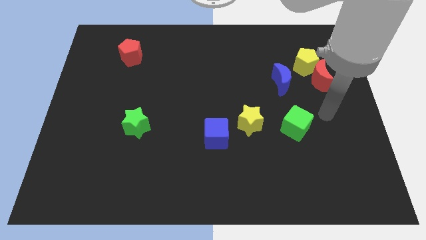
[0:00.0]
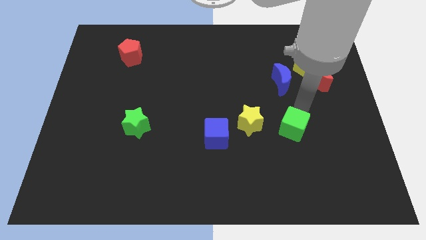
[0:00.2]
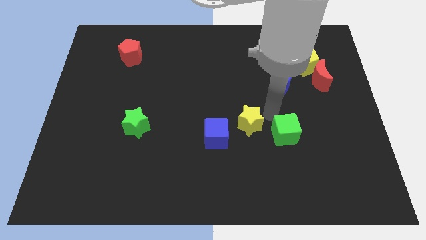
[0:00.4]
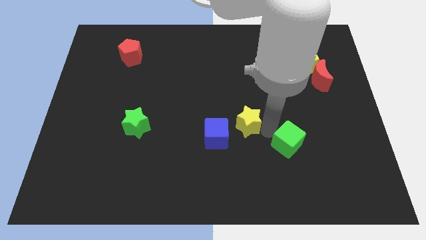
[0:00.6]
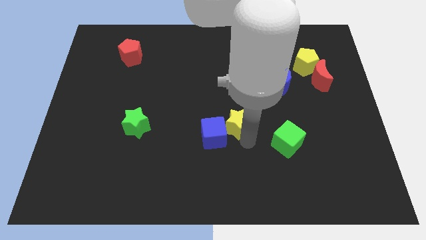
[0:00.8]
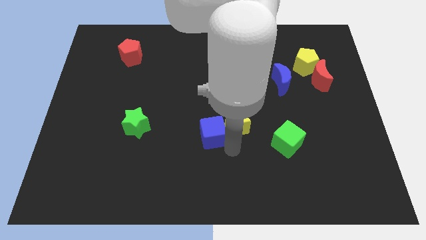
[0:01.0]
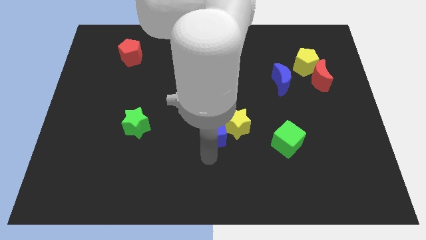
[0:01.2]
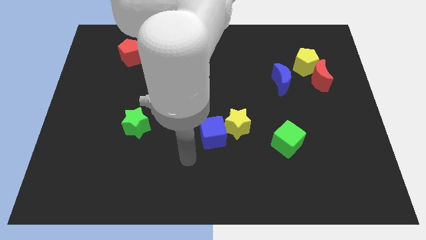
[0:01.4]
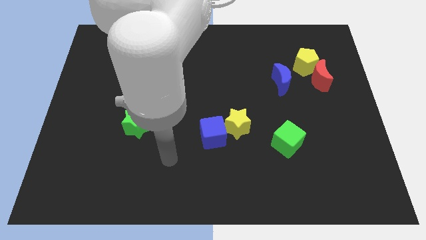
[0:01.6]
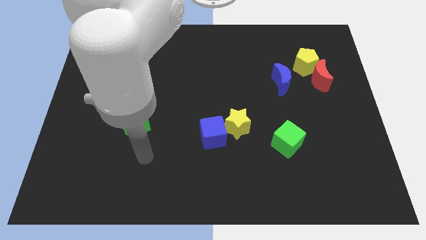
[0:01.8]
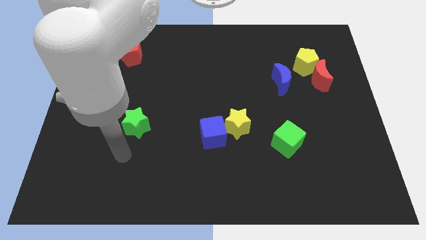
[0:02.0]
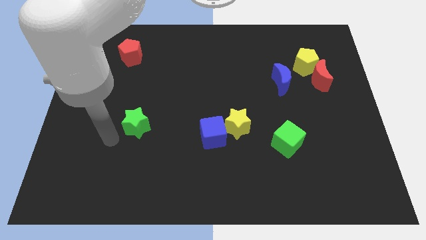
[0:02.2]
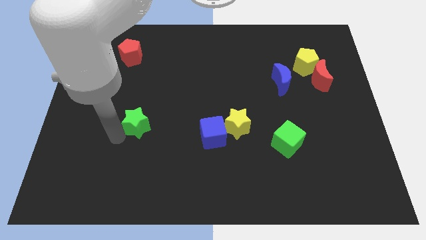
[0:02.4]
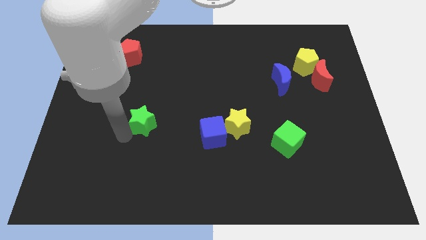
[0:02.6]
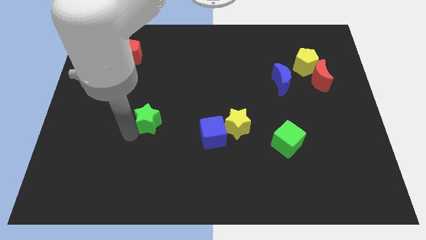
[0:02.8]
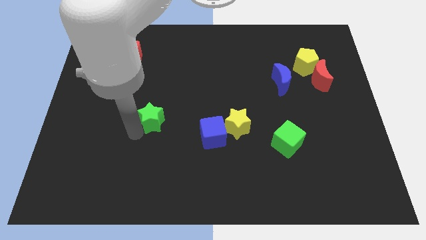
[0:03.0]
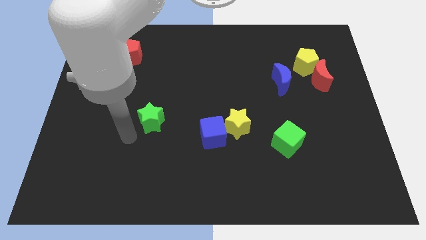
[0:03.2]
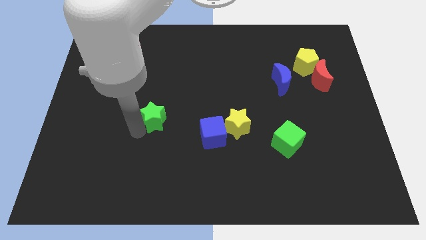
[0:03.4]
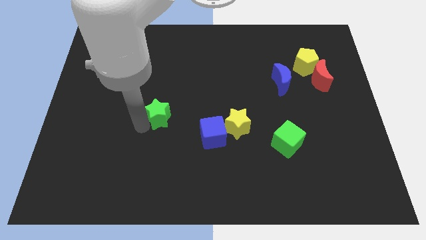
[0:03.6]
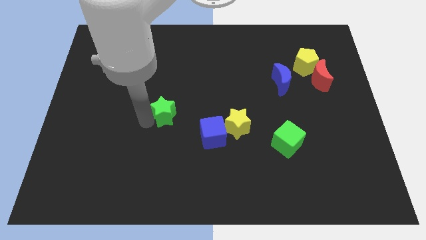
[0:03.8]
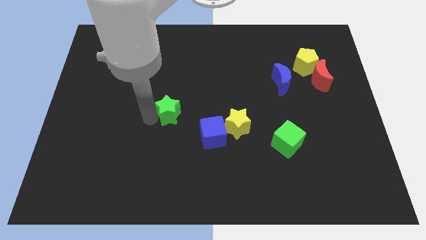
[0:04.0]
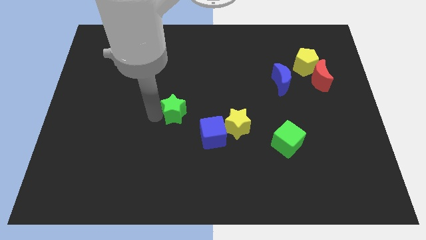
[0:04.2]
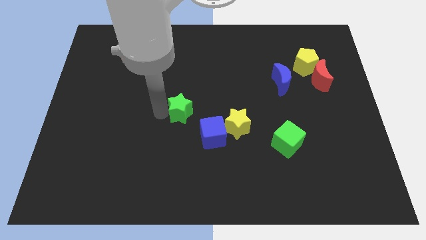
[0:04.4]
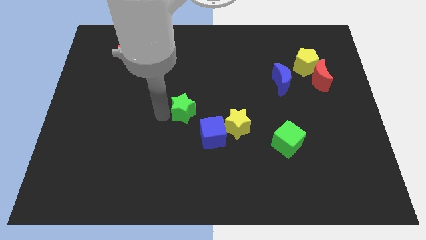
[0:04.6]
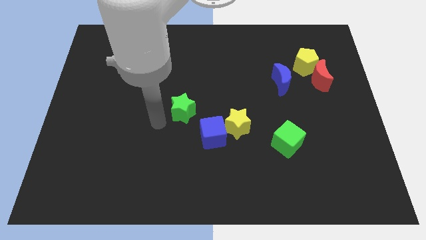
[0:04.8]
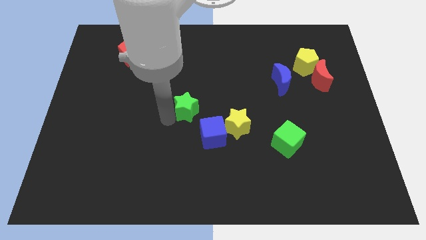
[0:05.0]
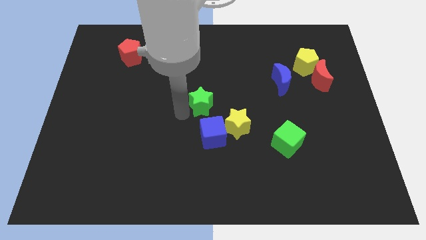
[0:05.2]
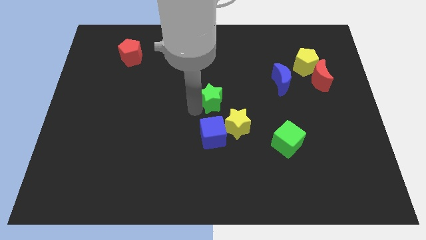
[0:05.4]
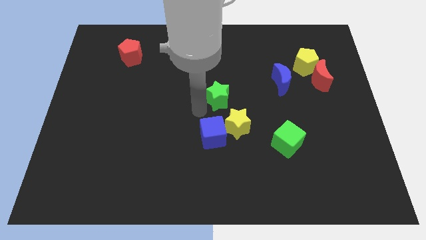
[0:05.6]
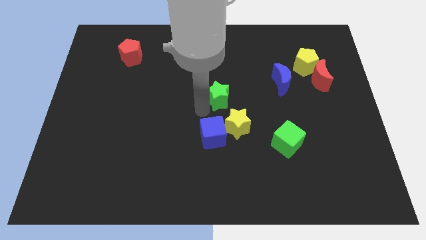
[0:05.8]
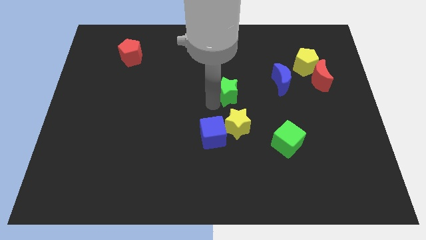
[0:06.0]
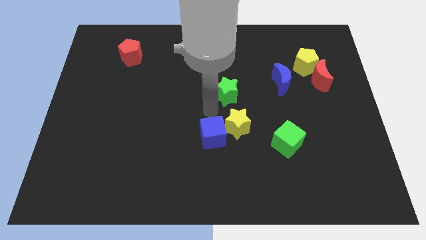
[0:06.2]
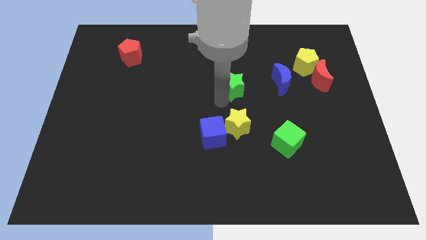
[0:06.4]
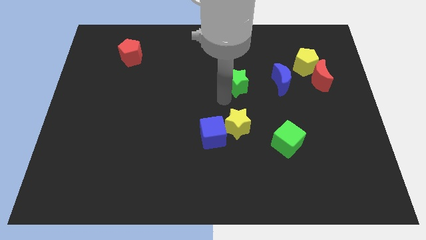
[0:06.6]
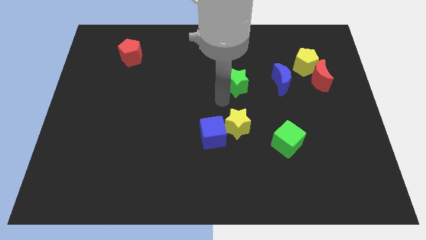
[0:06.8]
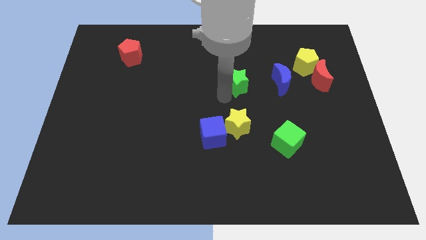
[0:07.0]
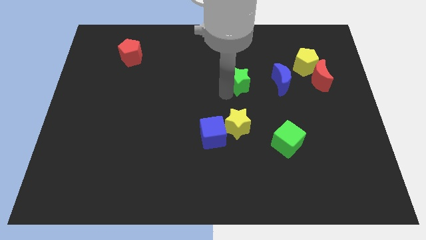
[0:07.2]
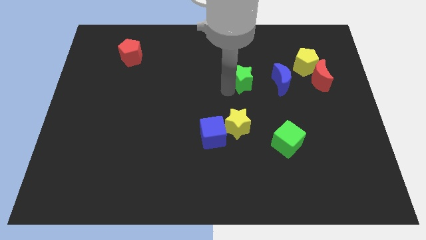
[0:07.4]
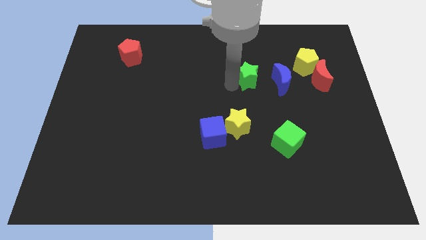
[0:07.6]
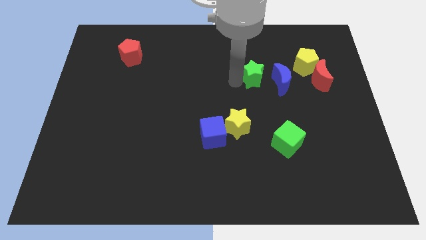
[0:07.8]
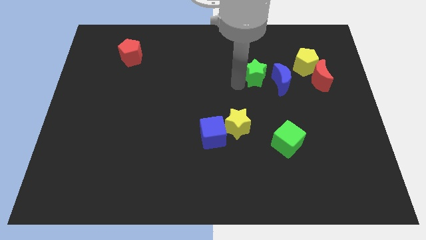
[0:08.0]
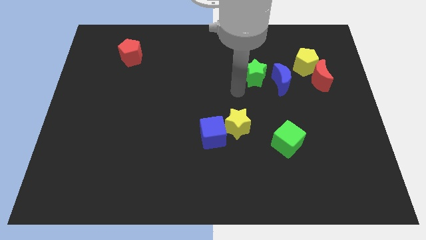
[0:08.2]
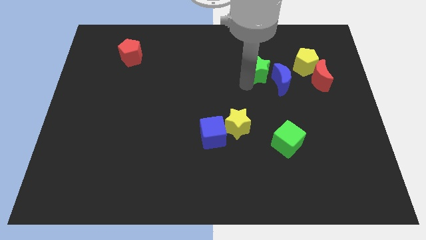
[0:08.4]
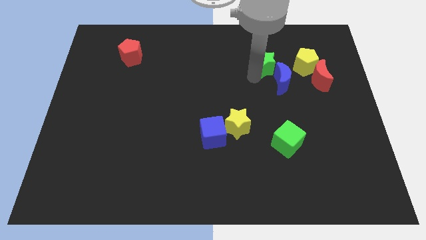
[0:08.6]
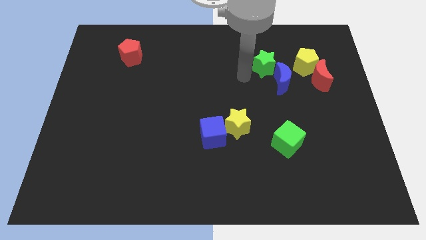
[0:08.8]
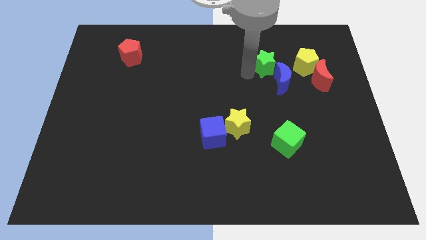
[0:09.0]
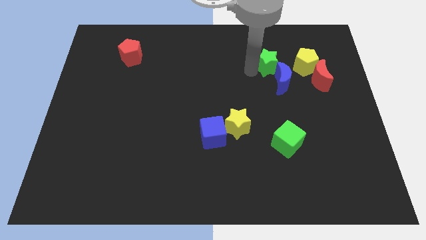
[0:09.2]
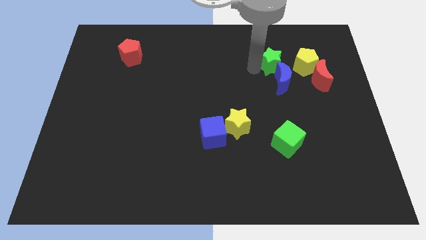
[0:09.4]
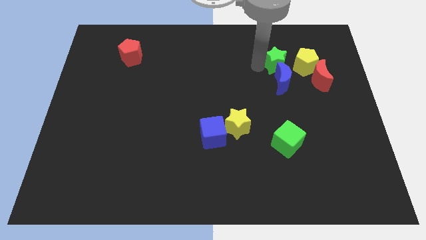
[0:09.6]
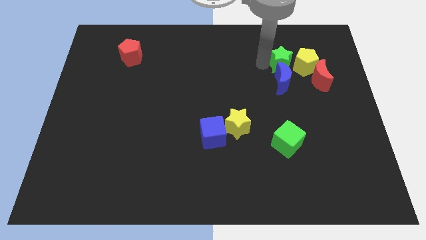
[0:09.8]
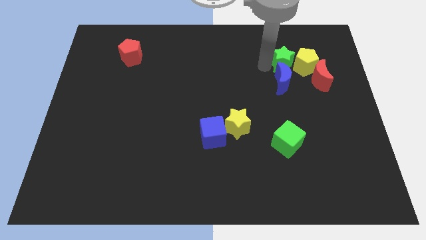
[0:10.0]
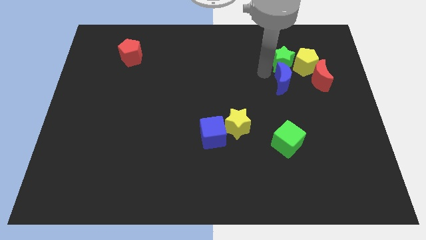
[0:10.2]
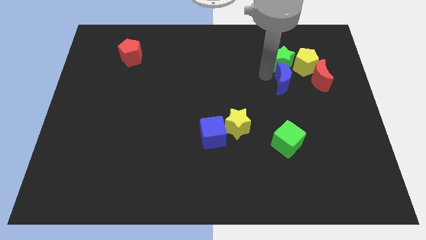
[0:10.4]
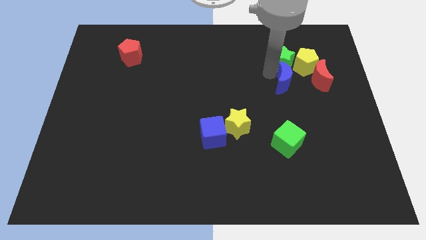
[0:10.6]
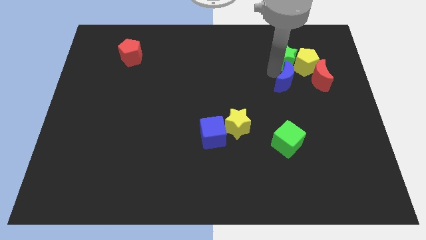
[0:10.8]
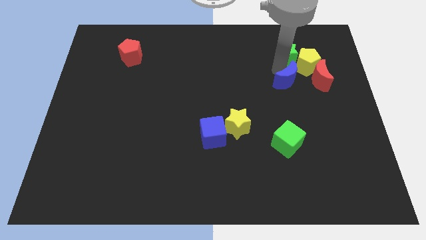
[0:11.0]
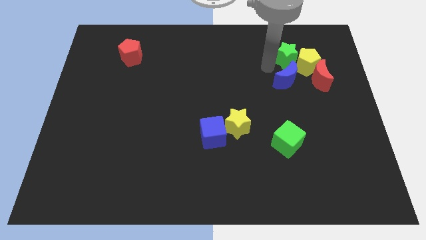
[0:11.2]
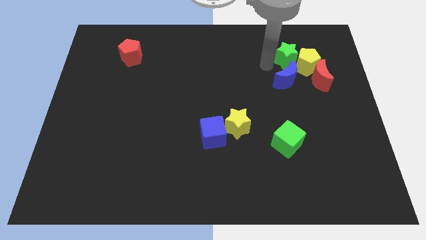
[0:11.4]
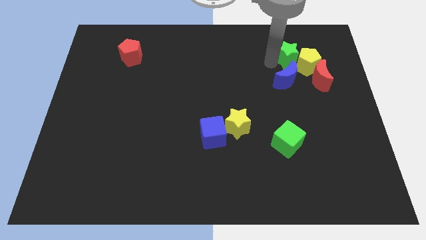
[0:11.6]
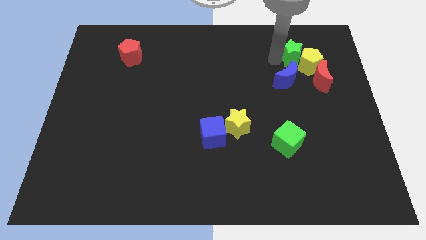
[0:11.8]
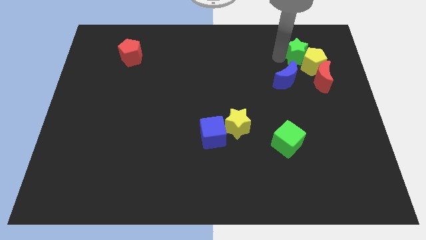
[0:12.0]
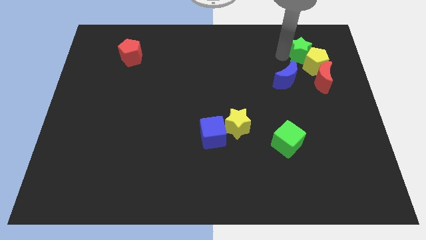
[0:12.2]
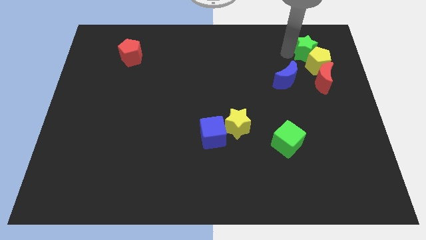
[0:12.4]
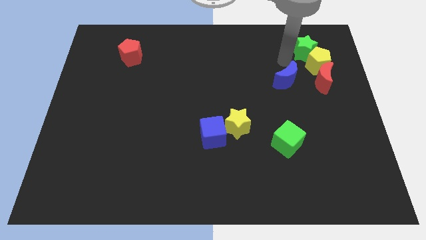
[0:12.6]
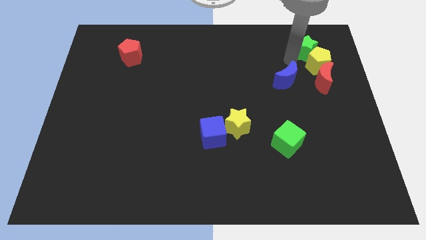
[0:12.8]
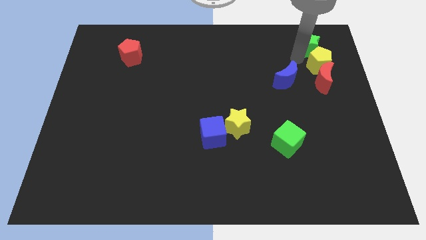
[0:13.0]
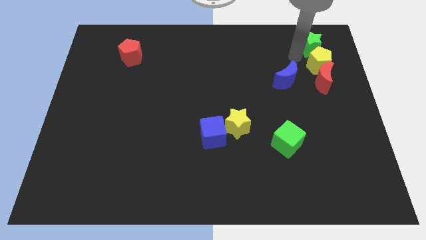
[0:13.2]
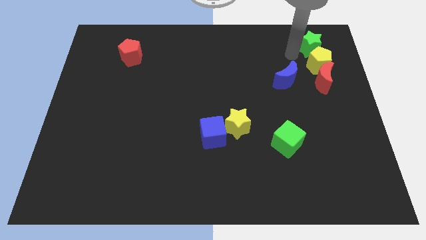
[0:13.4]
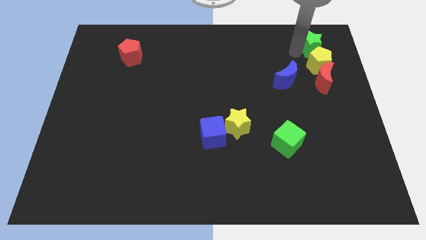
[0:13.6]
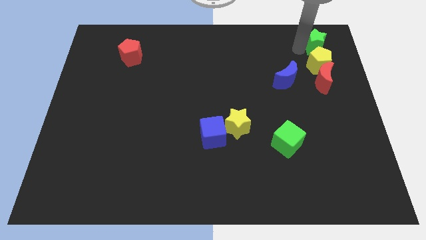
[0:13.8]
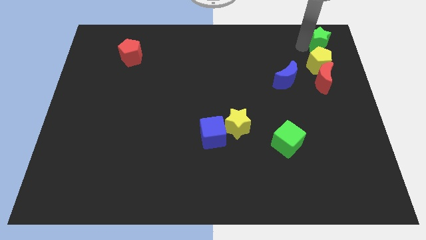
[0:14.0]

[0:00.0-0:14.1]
slide the green star to the top right of the board
